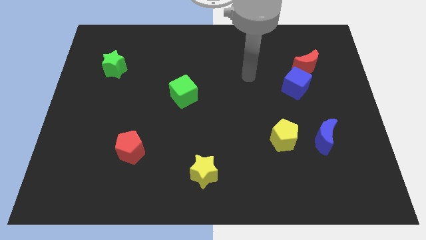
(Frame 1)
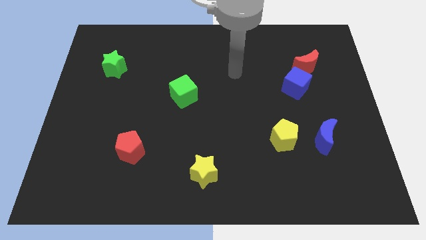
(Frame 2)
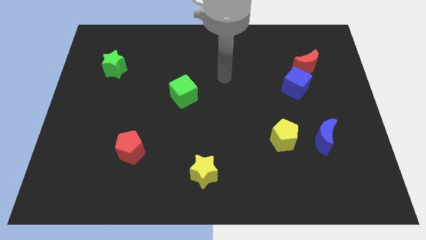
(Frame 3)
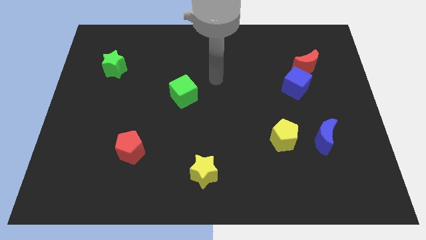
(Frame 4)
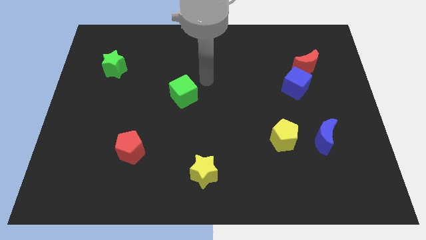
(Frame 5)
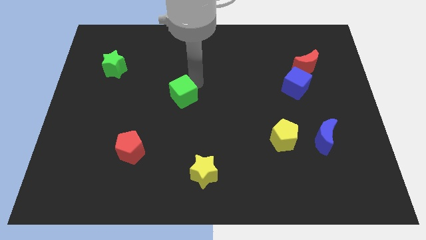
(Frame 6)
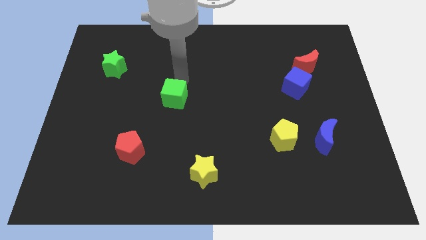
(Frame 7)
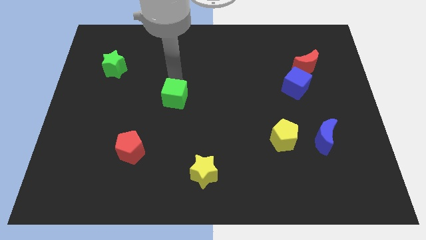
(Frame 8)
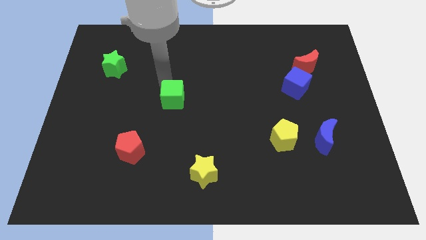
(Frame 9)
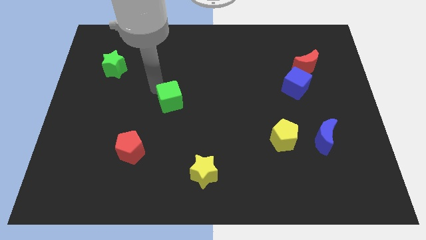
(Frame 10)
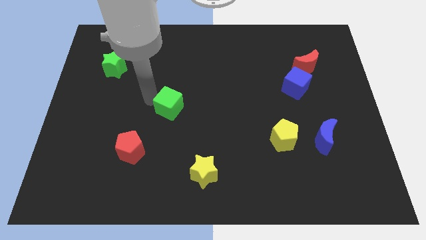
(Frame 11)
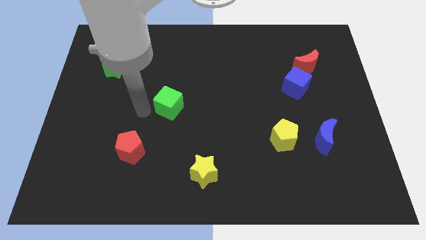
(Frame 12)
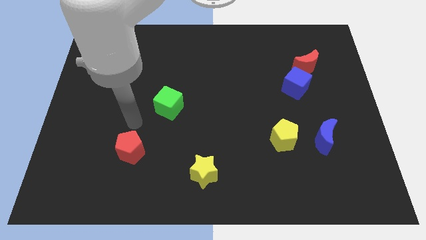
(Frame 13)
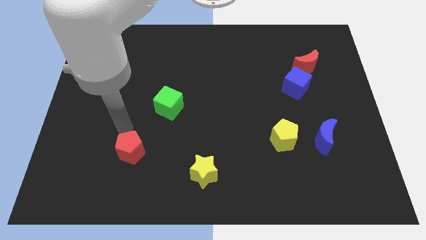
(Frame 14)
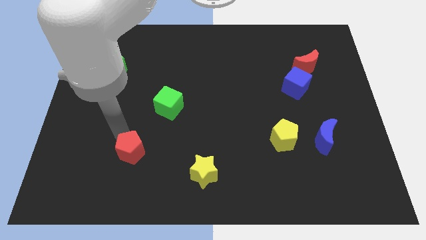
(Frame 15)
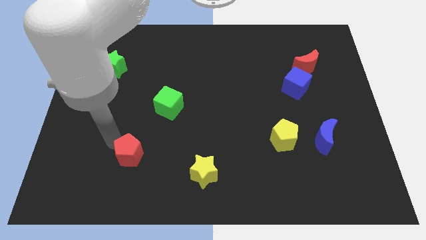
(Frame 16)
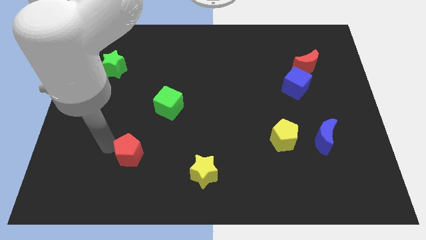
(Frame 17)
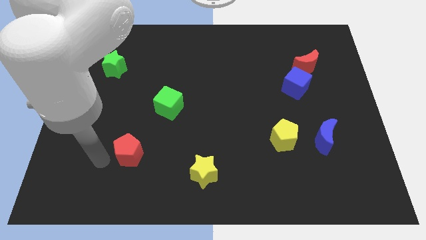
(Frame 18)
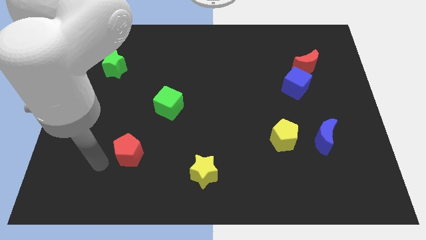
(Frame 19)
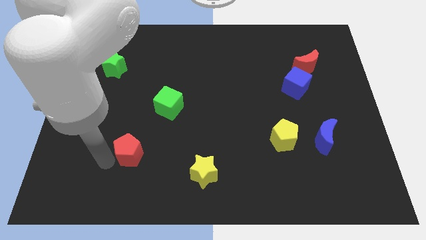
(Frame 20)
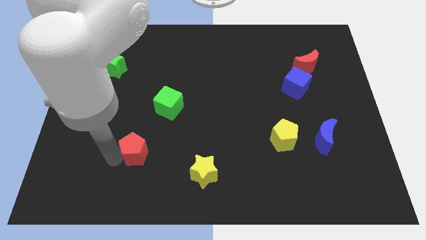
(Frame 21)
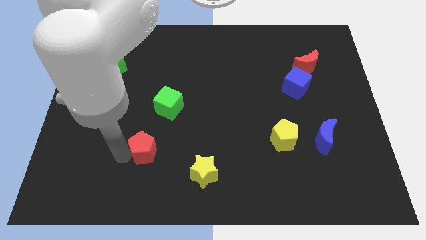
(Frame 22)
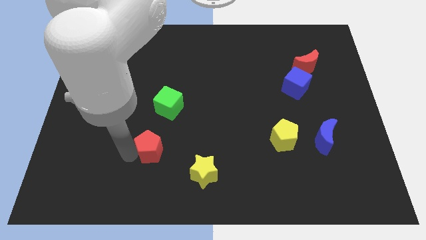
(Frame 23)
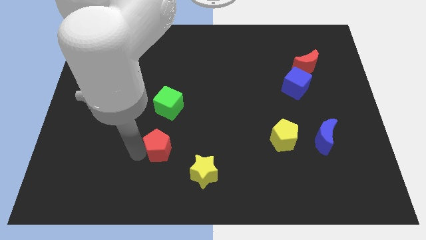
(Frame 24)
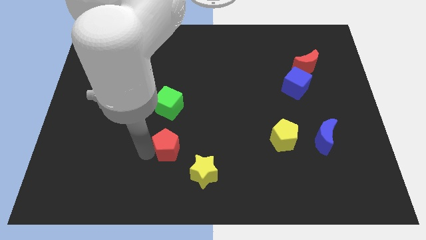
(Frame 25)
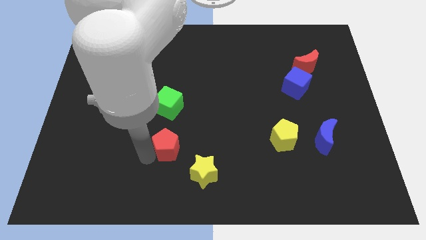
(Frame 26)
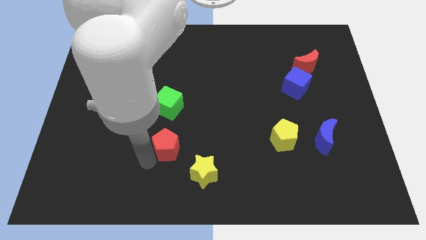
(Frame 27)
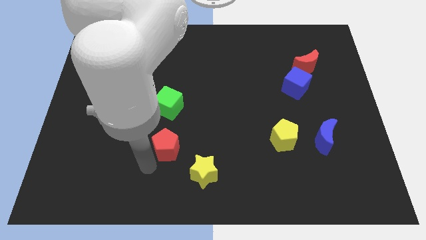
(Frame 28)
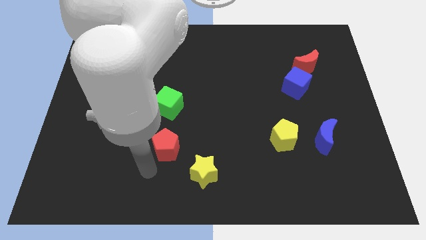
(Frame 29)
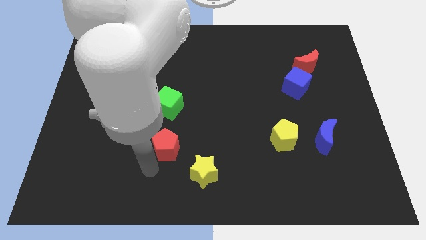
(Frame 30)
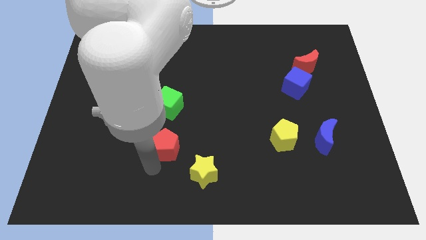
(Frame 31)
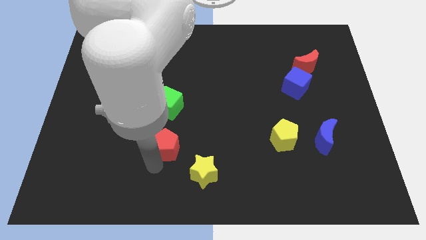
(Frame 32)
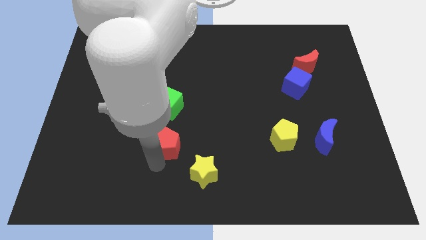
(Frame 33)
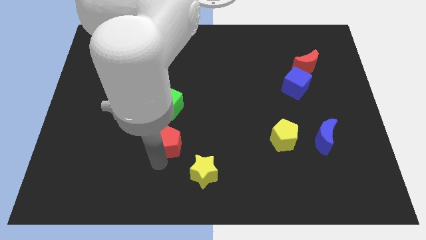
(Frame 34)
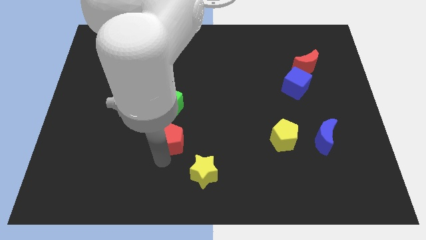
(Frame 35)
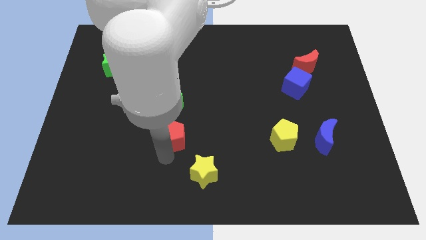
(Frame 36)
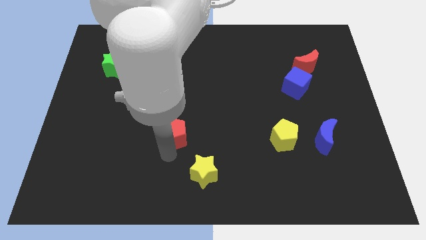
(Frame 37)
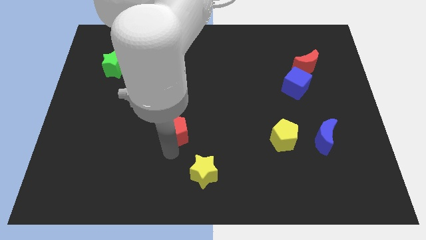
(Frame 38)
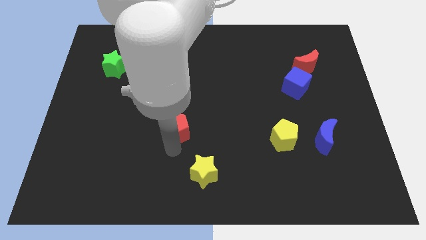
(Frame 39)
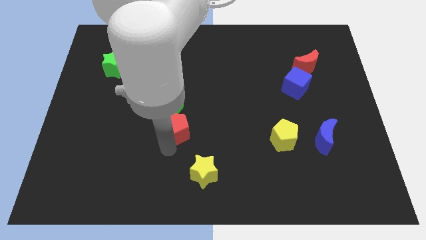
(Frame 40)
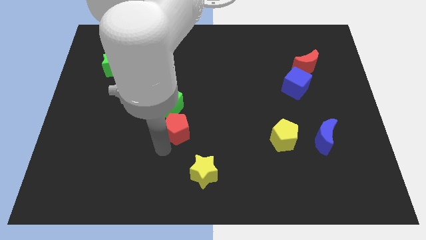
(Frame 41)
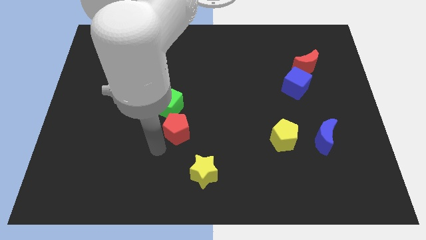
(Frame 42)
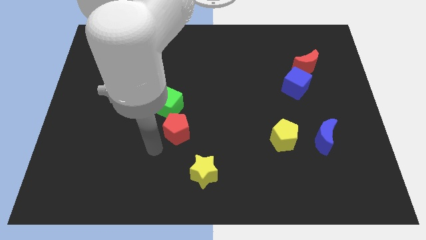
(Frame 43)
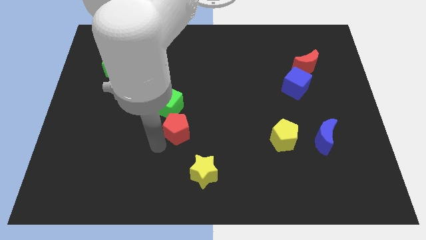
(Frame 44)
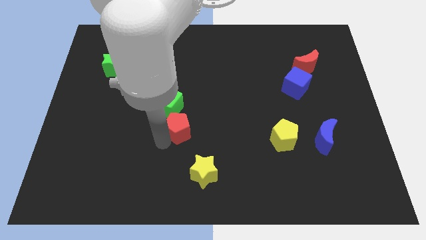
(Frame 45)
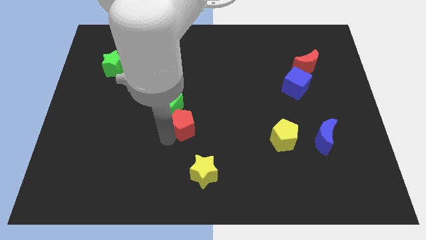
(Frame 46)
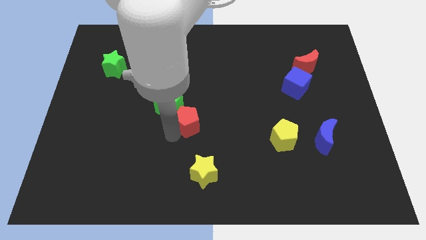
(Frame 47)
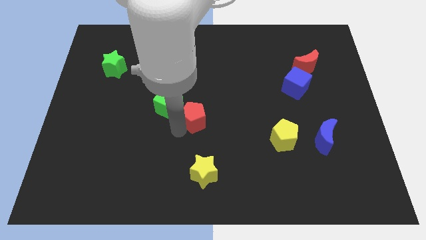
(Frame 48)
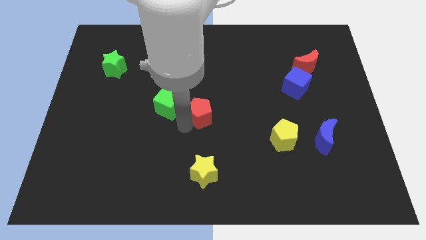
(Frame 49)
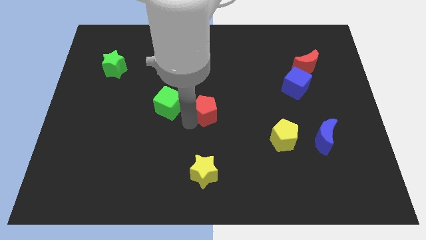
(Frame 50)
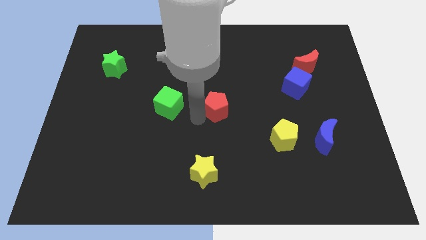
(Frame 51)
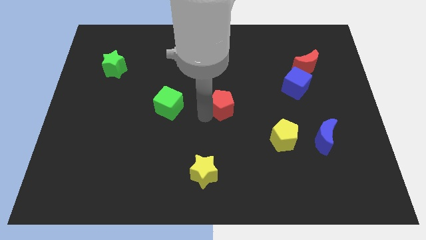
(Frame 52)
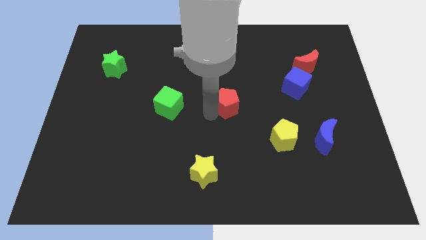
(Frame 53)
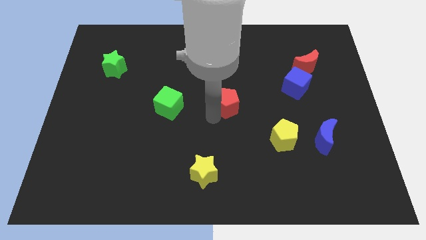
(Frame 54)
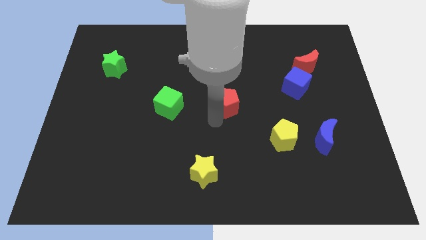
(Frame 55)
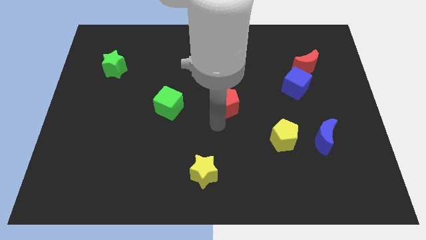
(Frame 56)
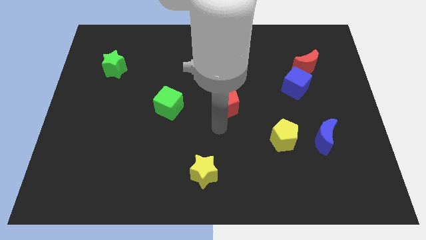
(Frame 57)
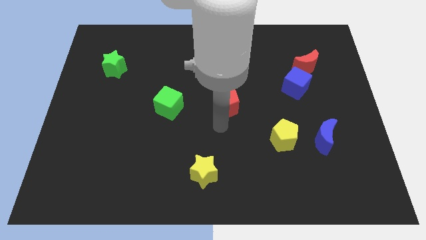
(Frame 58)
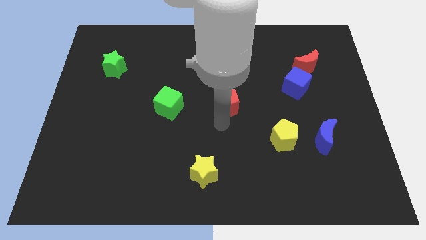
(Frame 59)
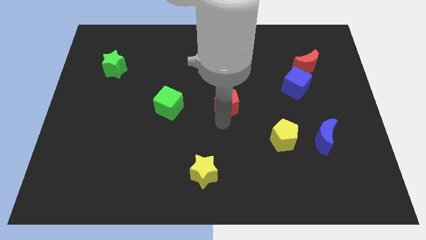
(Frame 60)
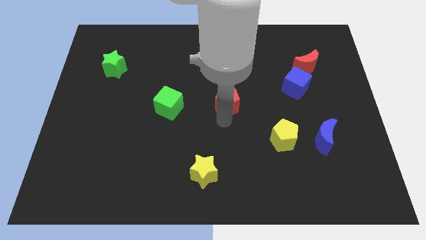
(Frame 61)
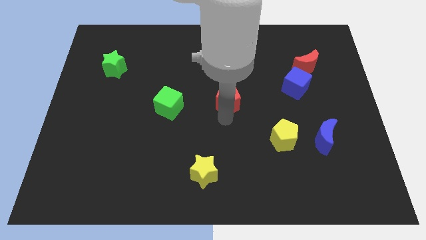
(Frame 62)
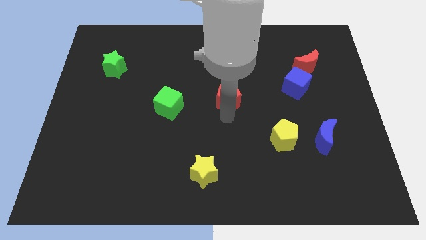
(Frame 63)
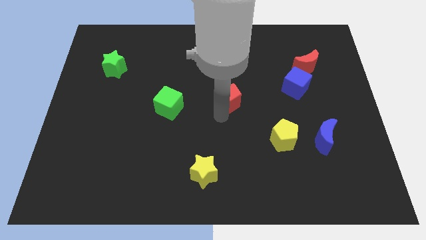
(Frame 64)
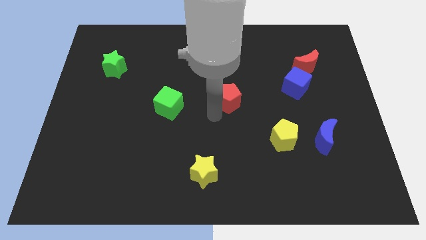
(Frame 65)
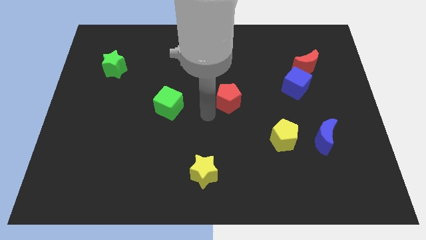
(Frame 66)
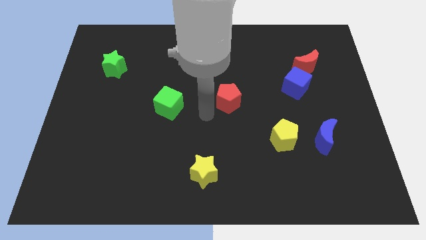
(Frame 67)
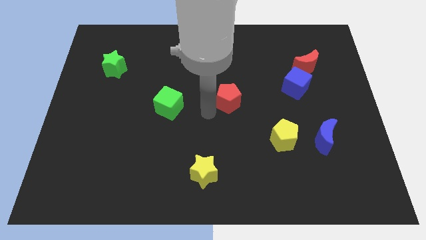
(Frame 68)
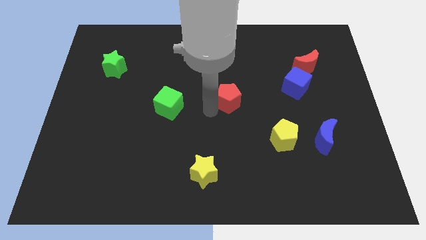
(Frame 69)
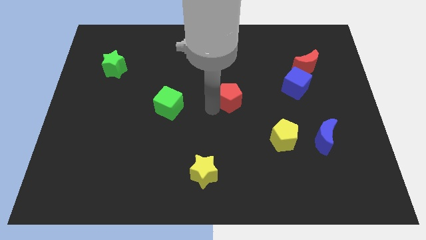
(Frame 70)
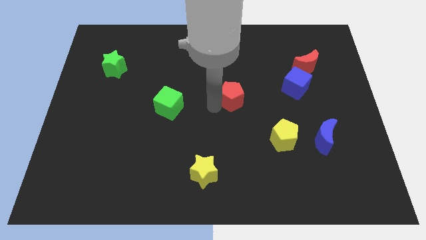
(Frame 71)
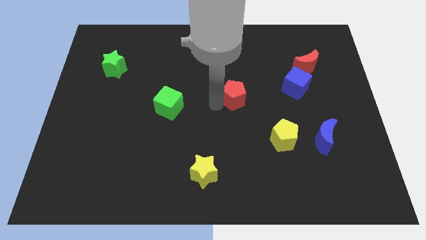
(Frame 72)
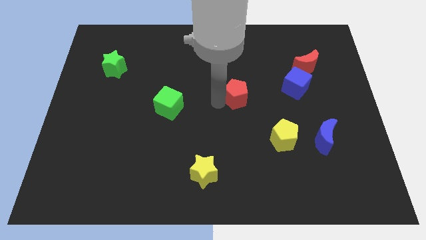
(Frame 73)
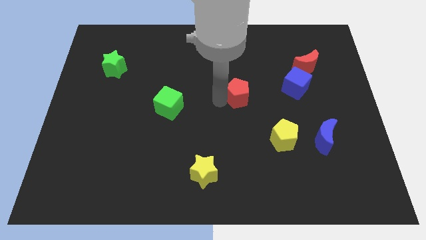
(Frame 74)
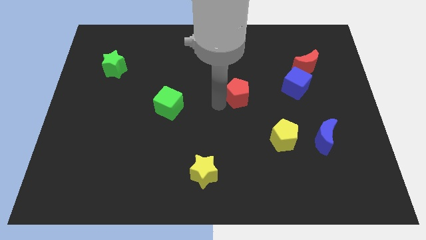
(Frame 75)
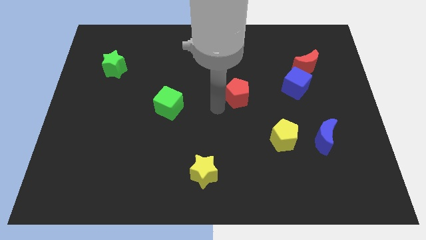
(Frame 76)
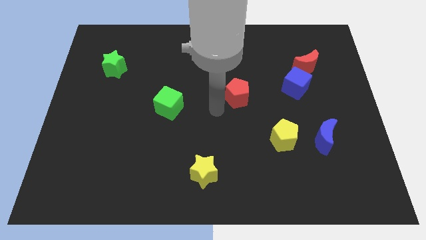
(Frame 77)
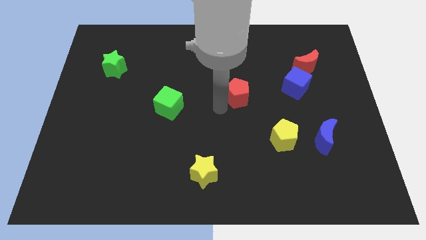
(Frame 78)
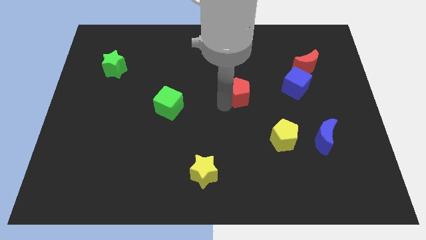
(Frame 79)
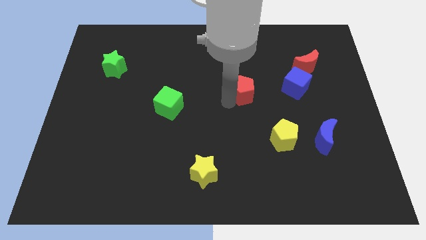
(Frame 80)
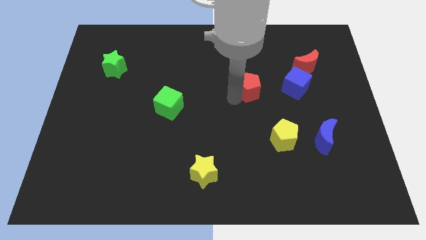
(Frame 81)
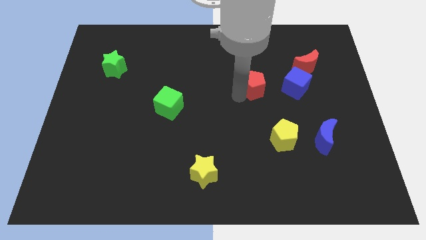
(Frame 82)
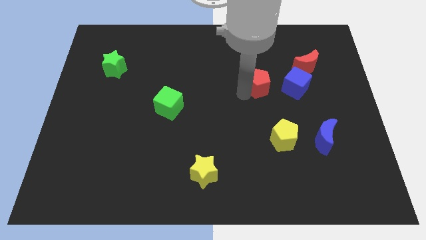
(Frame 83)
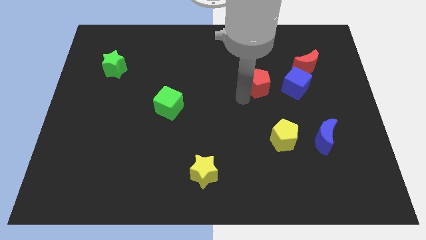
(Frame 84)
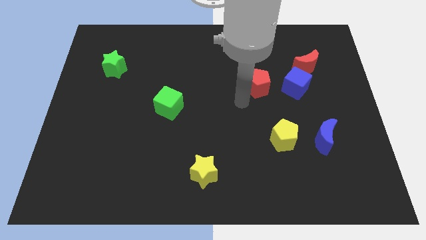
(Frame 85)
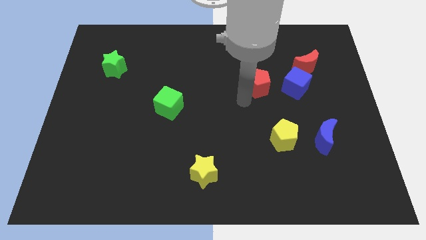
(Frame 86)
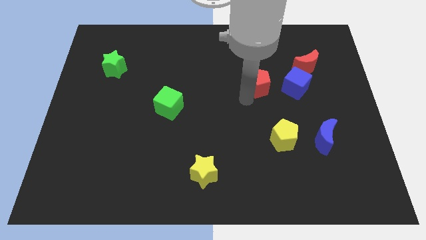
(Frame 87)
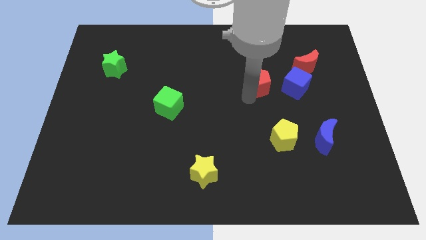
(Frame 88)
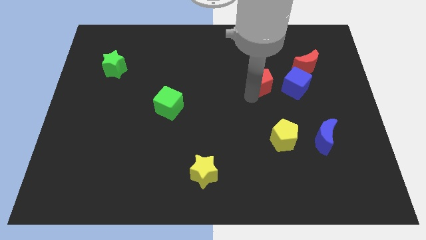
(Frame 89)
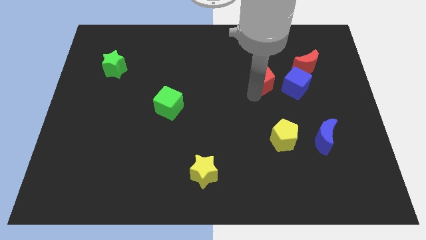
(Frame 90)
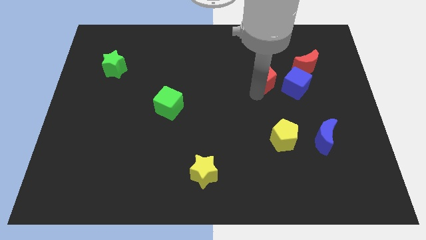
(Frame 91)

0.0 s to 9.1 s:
move the red pentagon to the top left of the blue cube
